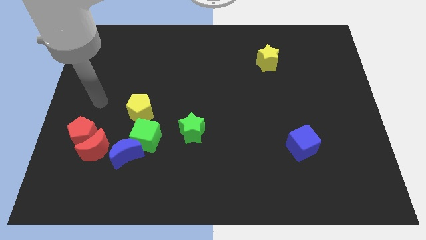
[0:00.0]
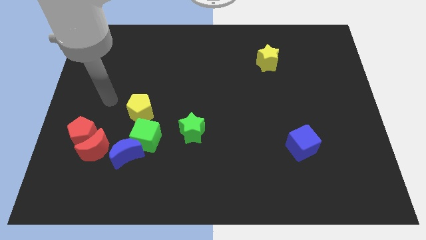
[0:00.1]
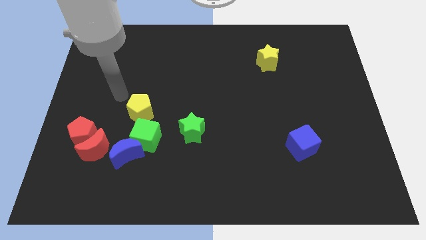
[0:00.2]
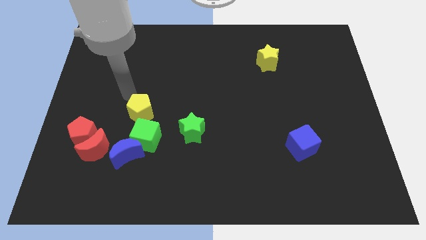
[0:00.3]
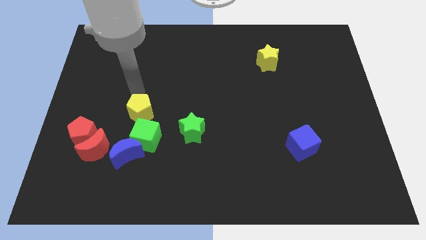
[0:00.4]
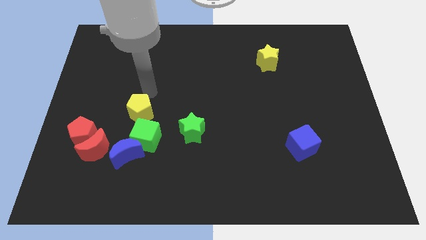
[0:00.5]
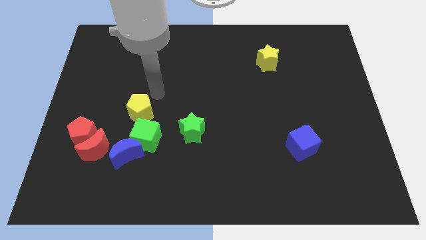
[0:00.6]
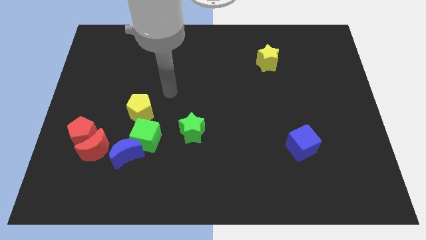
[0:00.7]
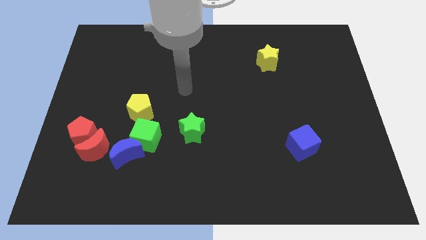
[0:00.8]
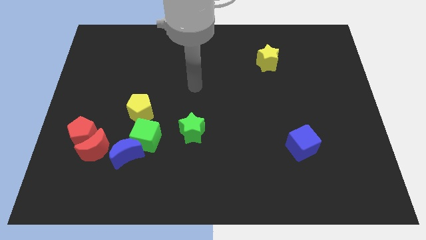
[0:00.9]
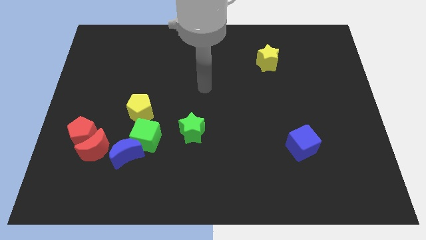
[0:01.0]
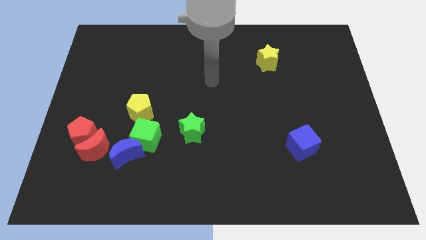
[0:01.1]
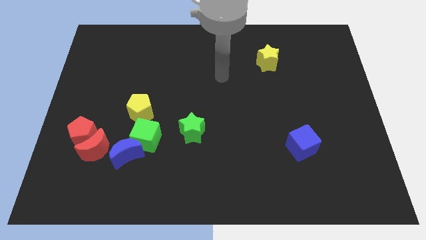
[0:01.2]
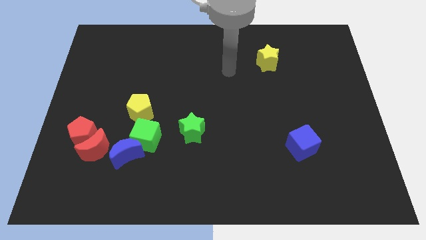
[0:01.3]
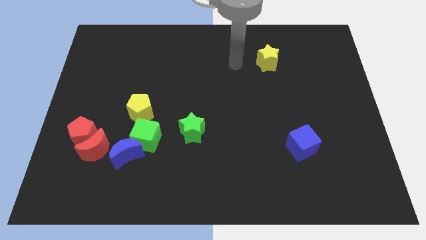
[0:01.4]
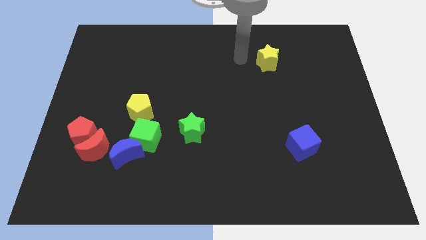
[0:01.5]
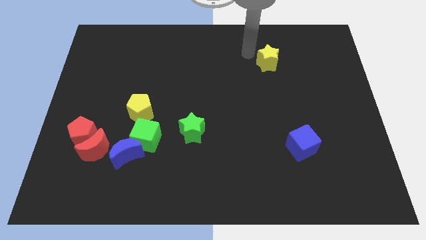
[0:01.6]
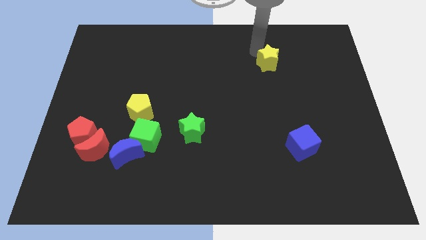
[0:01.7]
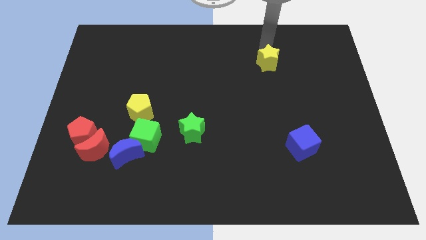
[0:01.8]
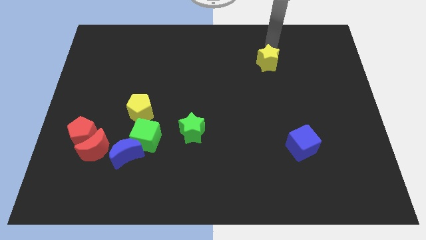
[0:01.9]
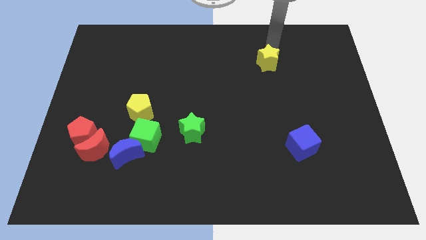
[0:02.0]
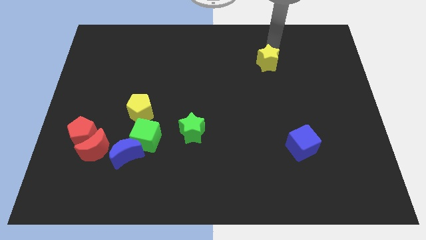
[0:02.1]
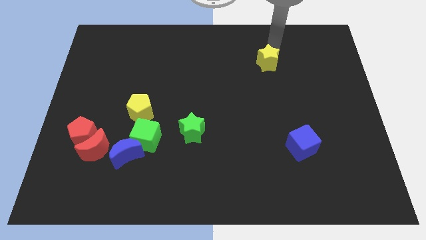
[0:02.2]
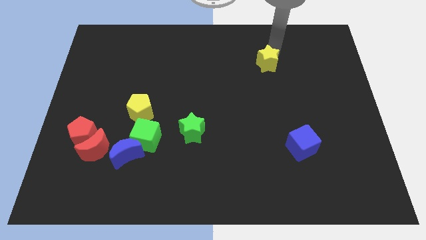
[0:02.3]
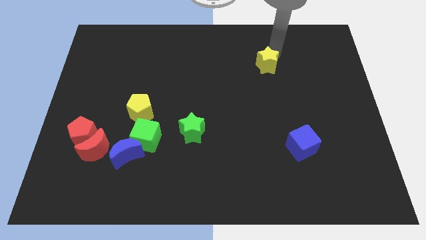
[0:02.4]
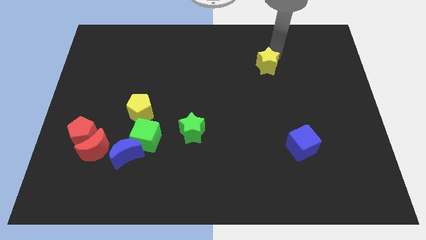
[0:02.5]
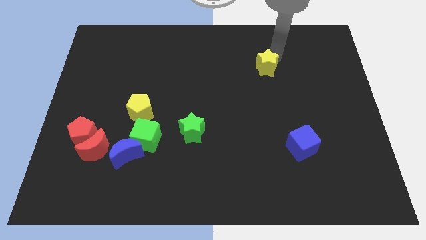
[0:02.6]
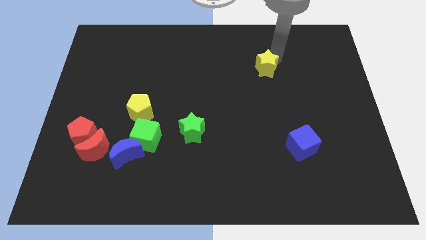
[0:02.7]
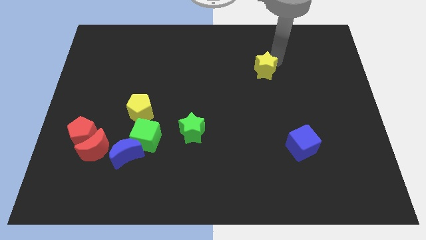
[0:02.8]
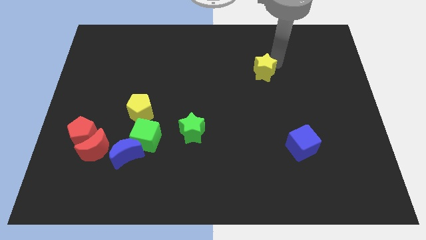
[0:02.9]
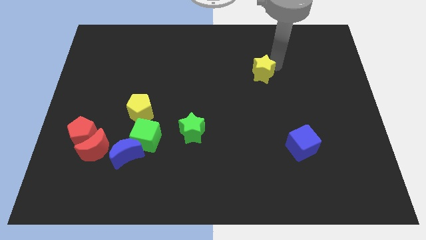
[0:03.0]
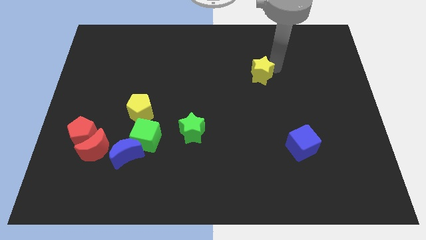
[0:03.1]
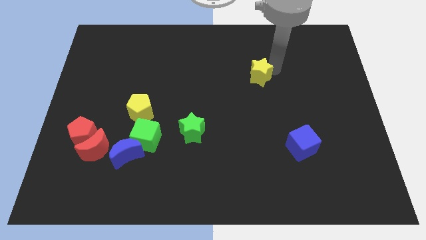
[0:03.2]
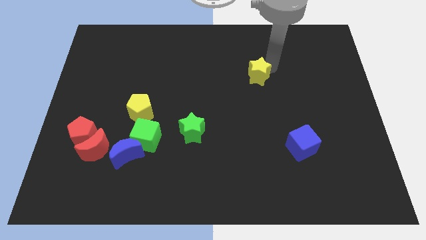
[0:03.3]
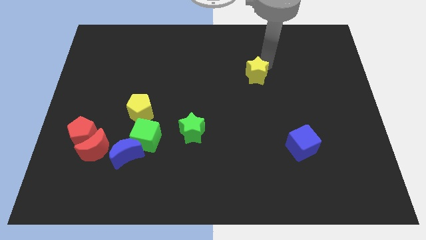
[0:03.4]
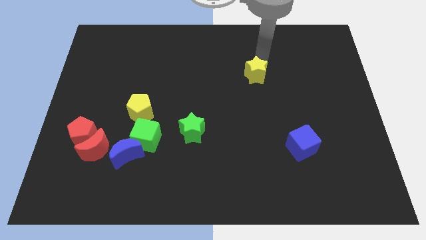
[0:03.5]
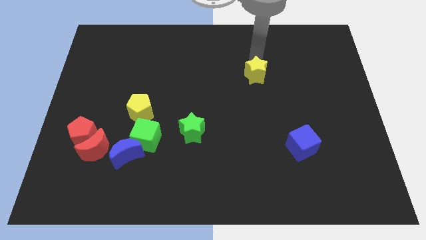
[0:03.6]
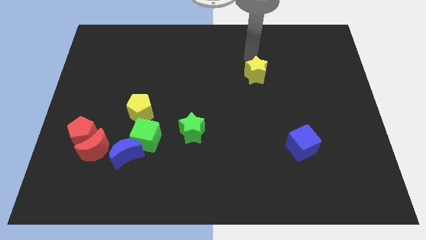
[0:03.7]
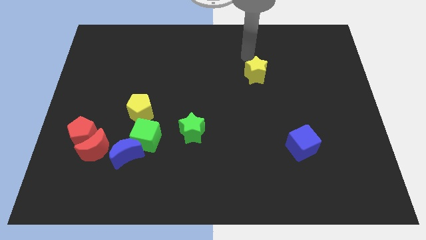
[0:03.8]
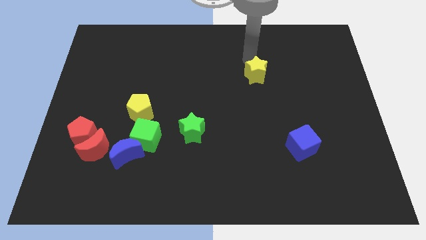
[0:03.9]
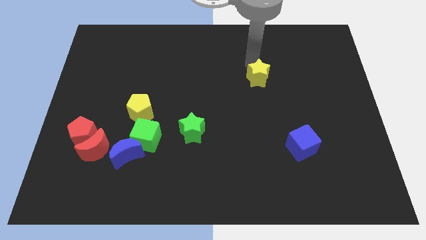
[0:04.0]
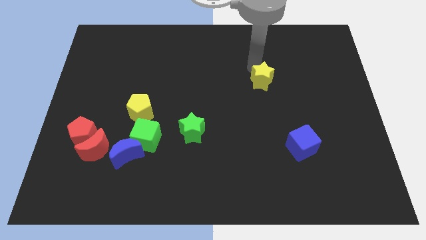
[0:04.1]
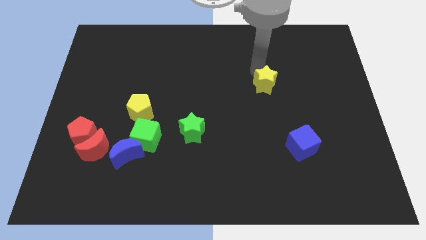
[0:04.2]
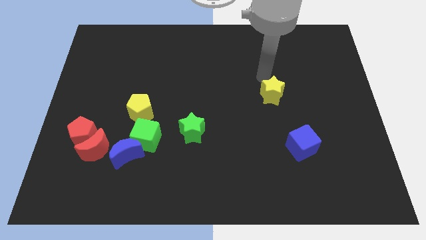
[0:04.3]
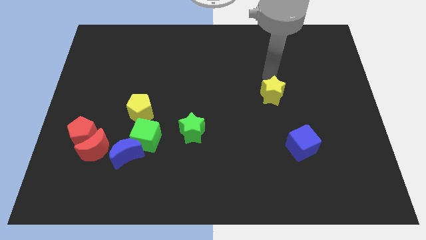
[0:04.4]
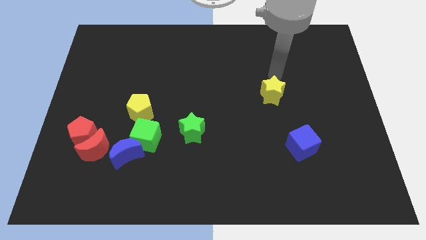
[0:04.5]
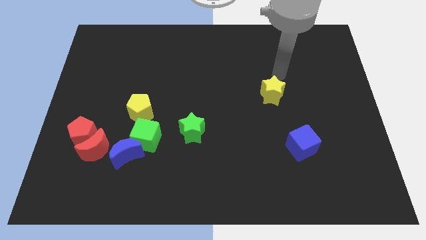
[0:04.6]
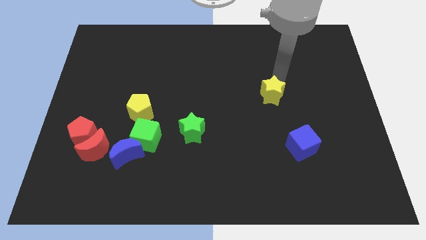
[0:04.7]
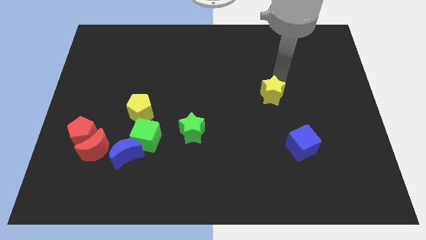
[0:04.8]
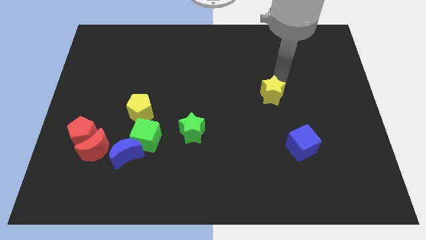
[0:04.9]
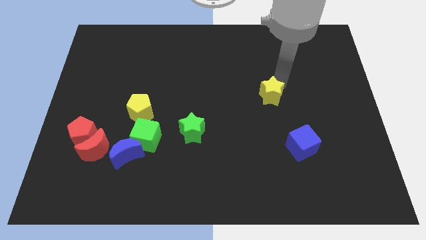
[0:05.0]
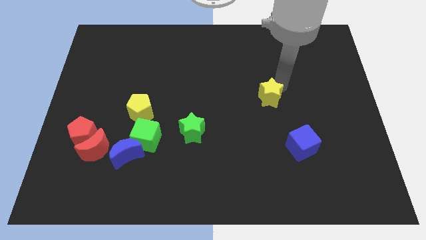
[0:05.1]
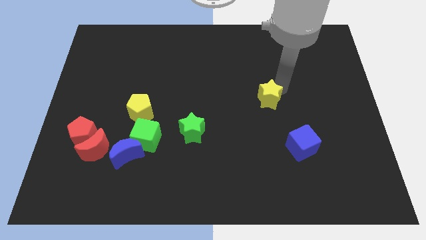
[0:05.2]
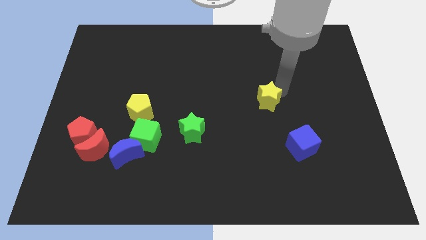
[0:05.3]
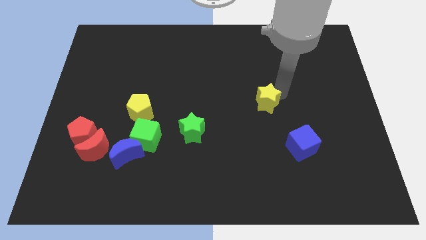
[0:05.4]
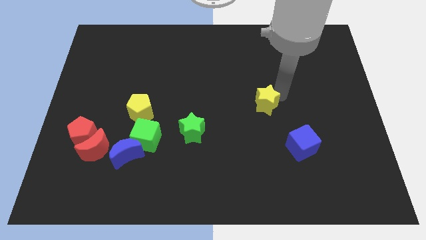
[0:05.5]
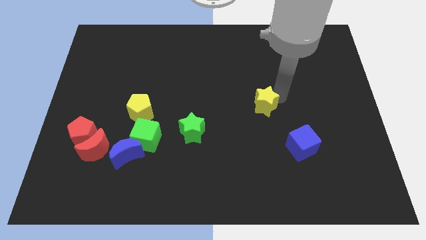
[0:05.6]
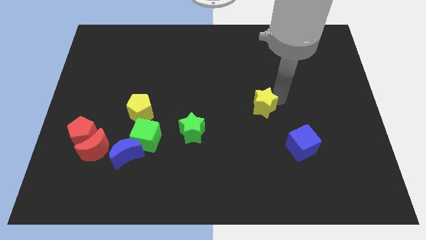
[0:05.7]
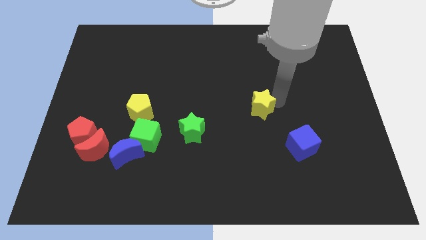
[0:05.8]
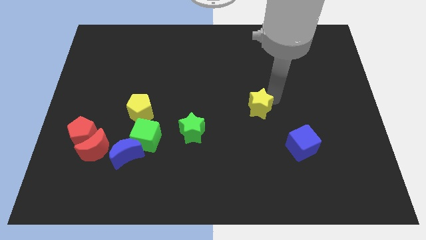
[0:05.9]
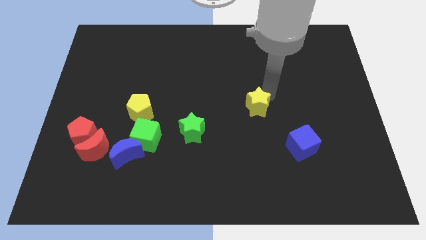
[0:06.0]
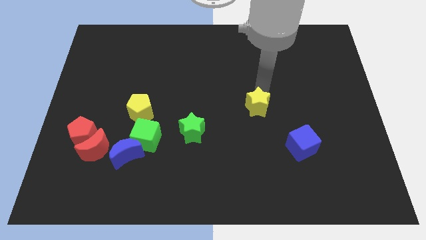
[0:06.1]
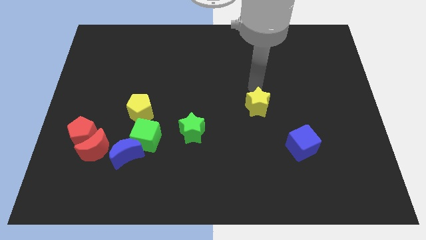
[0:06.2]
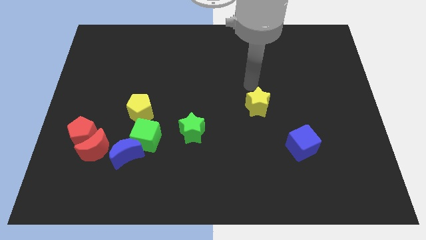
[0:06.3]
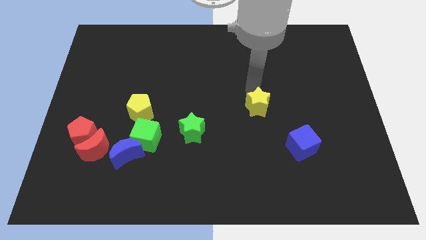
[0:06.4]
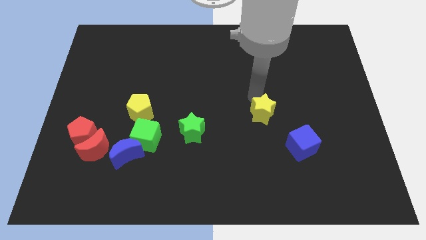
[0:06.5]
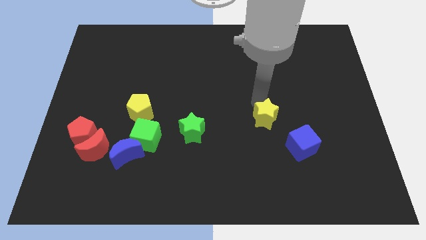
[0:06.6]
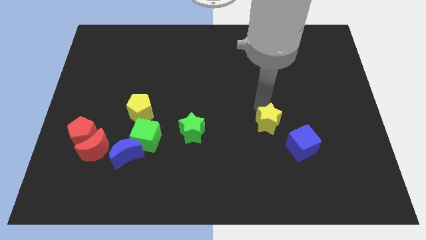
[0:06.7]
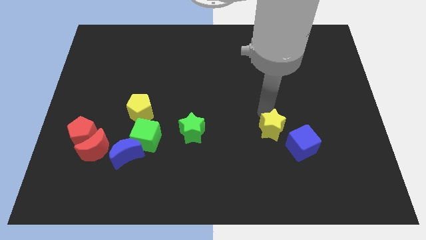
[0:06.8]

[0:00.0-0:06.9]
move the yellow star down

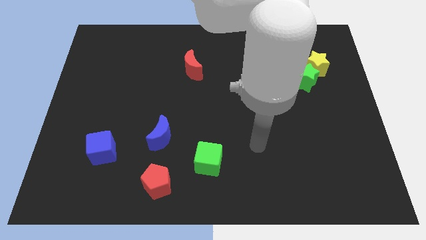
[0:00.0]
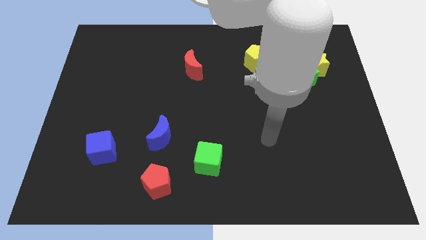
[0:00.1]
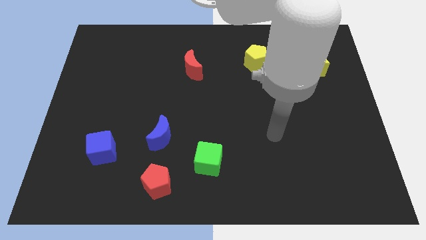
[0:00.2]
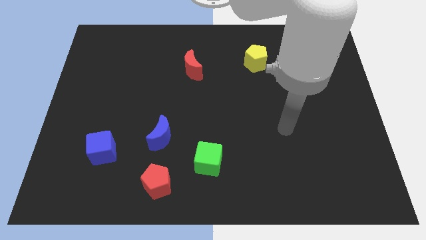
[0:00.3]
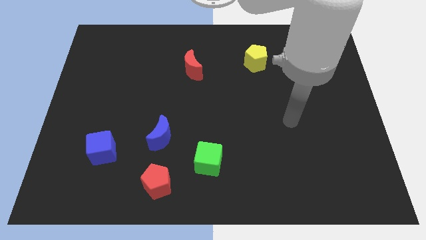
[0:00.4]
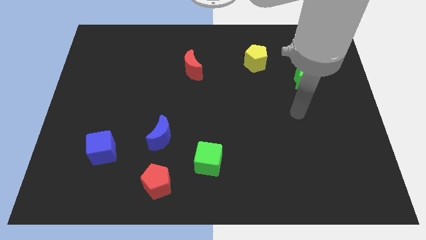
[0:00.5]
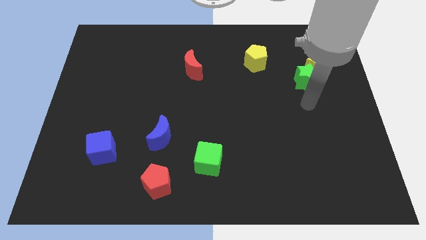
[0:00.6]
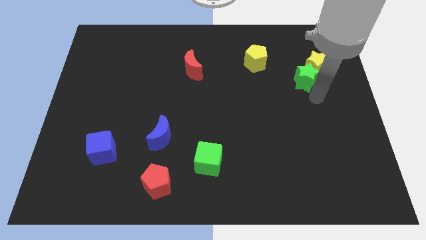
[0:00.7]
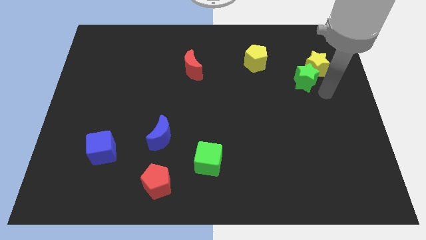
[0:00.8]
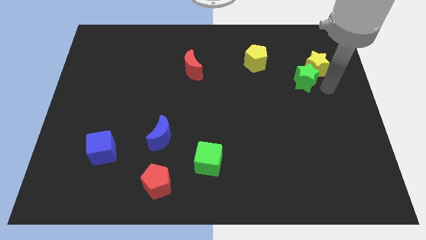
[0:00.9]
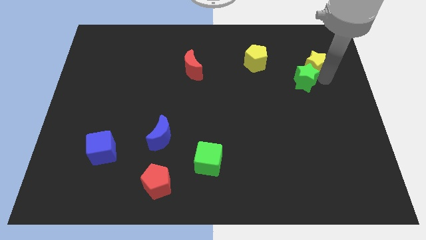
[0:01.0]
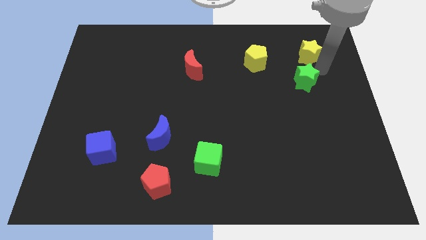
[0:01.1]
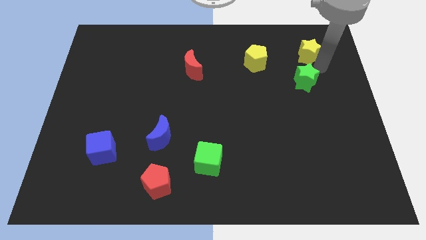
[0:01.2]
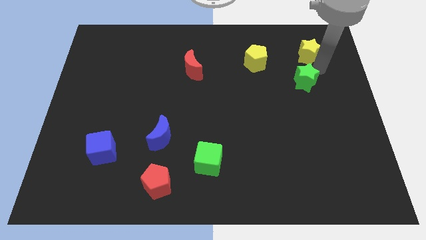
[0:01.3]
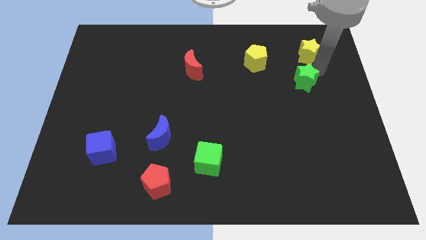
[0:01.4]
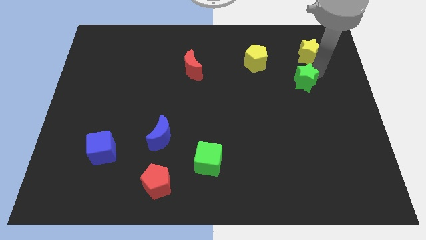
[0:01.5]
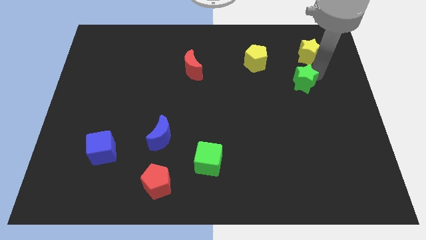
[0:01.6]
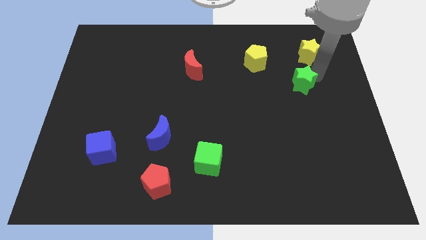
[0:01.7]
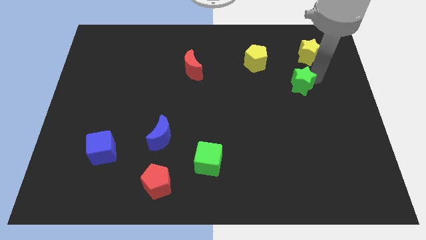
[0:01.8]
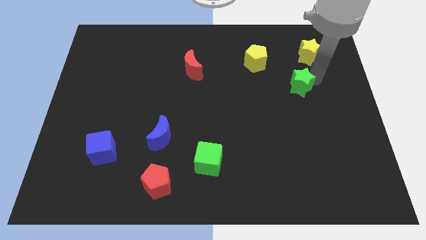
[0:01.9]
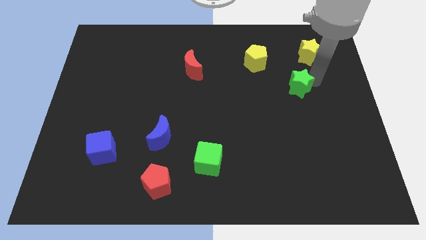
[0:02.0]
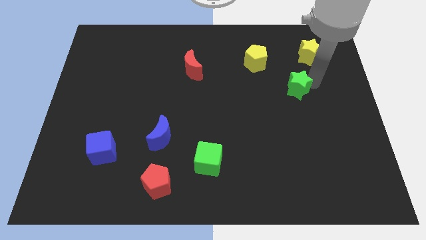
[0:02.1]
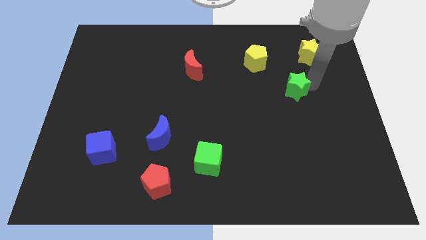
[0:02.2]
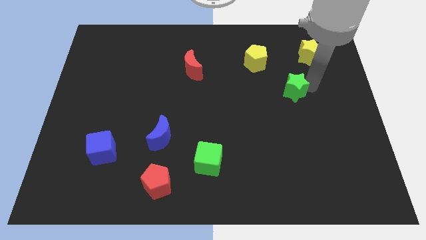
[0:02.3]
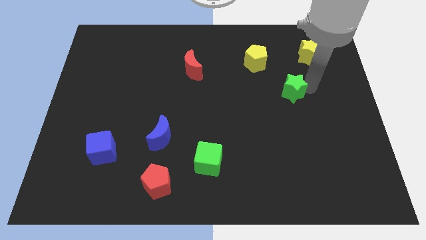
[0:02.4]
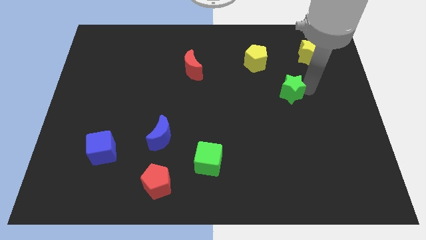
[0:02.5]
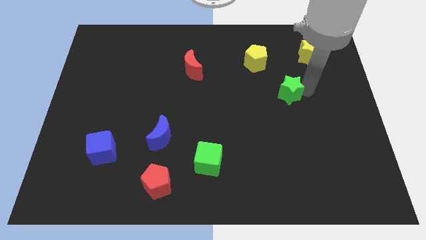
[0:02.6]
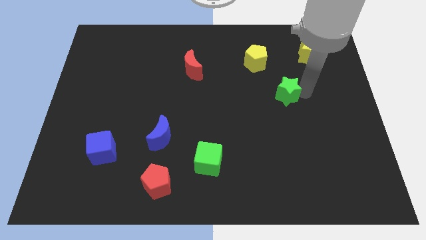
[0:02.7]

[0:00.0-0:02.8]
slide the green star downwards and left diagonally a little bit
